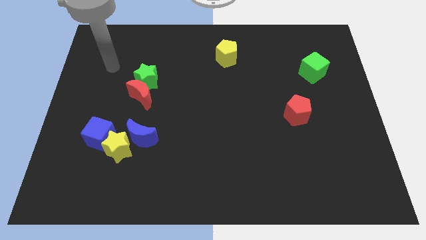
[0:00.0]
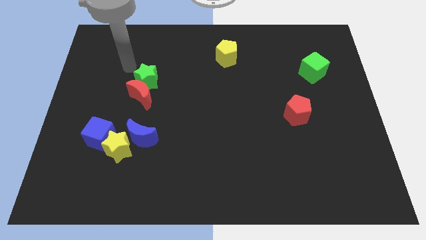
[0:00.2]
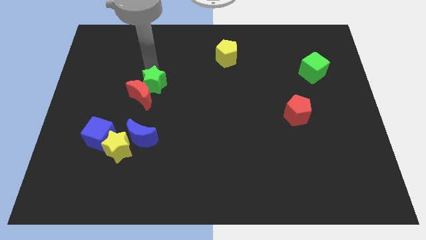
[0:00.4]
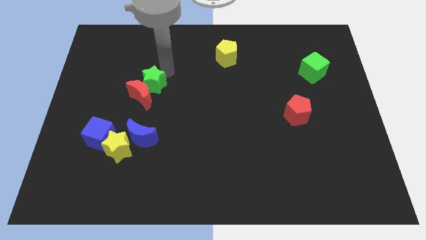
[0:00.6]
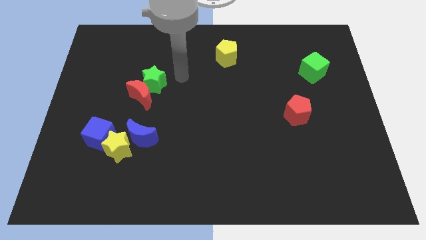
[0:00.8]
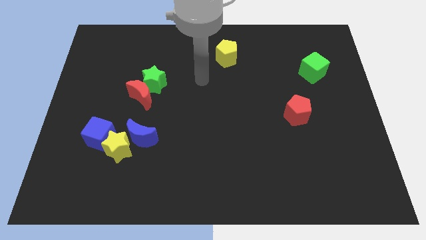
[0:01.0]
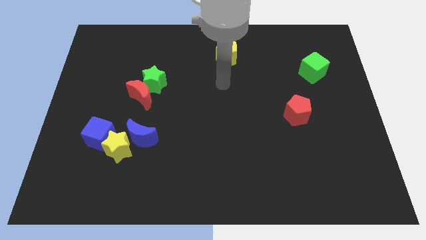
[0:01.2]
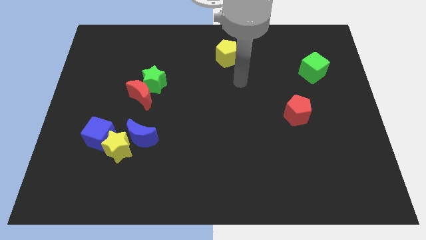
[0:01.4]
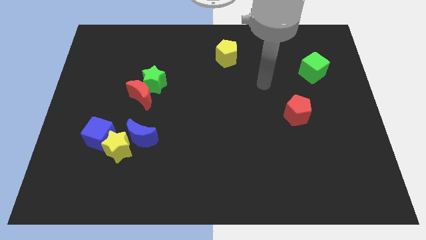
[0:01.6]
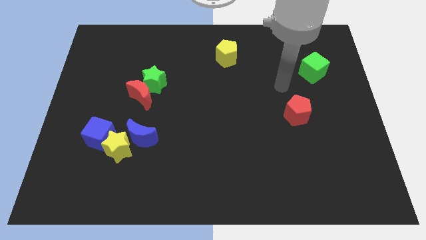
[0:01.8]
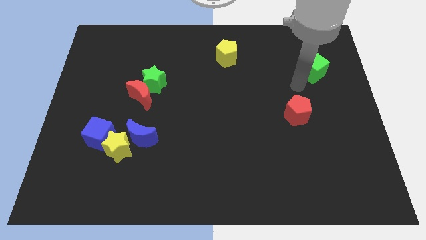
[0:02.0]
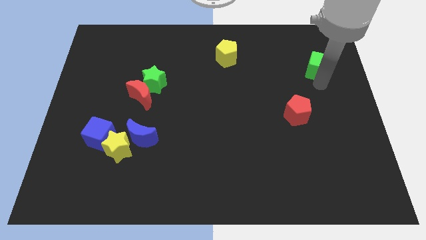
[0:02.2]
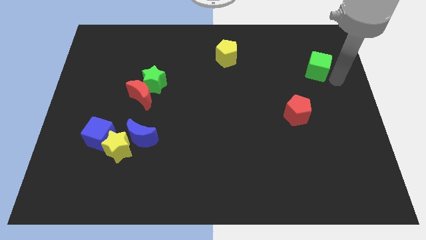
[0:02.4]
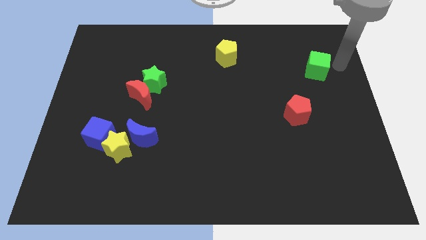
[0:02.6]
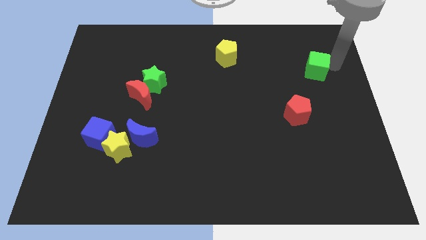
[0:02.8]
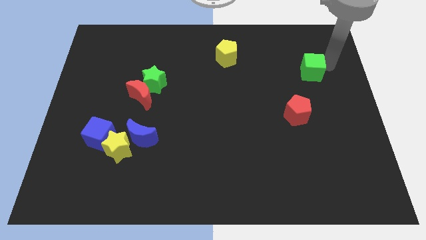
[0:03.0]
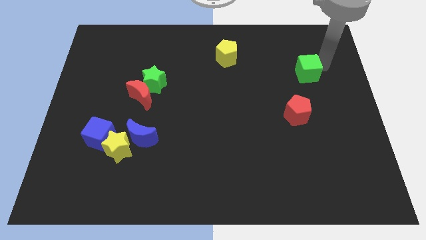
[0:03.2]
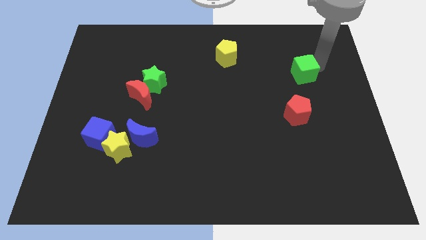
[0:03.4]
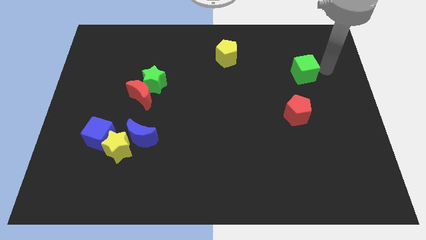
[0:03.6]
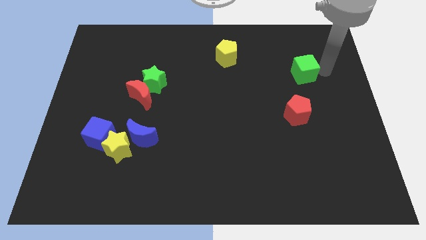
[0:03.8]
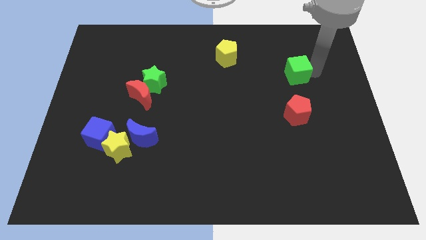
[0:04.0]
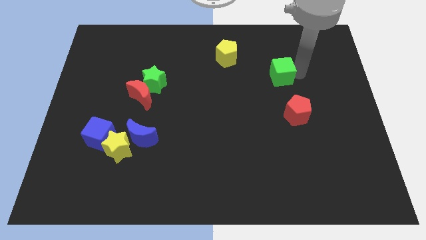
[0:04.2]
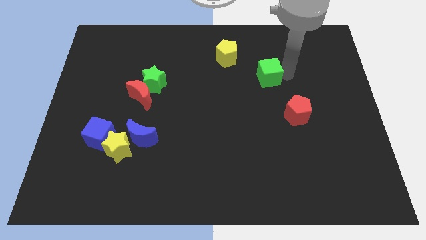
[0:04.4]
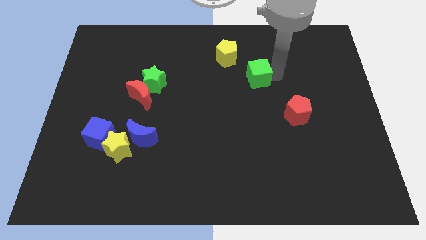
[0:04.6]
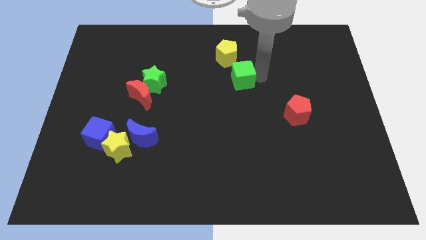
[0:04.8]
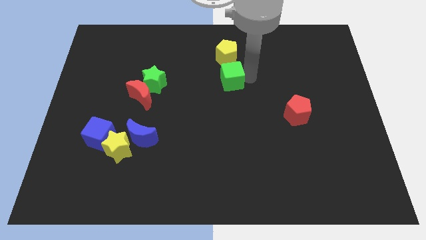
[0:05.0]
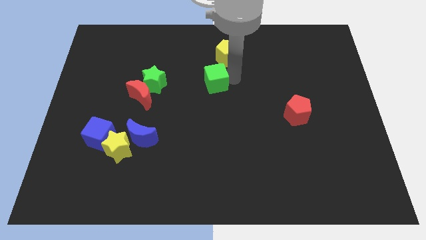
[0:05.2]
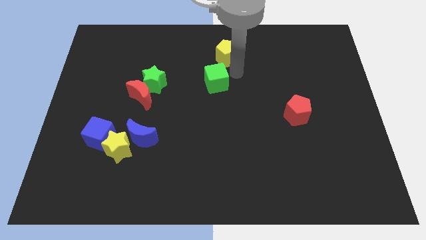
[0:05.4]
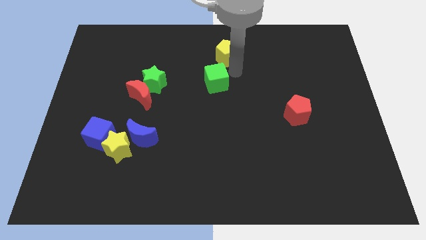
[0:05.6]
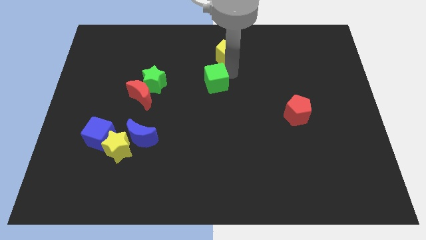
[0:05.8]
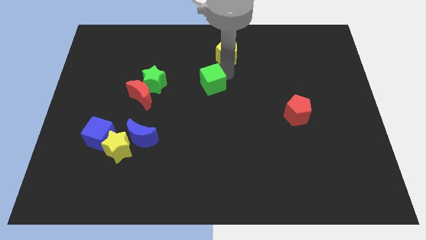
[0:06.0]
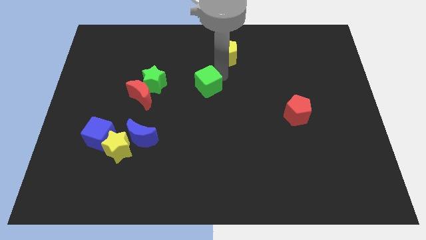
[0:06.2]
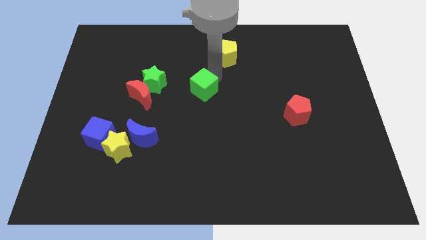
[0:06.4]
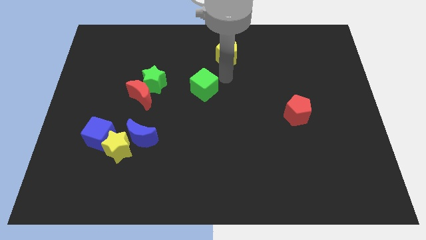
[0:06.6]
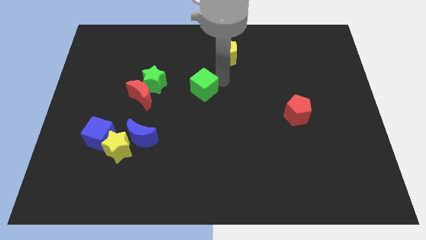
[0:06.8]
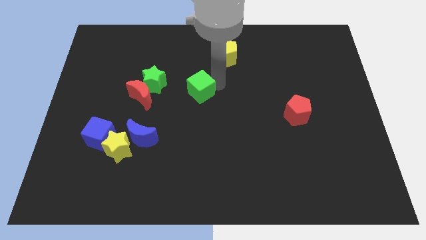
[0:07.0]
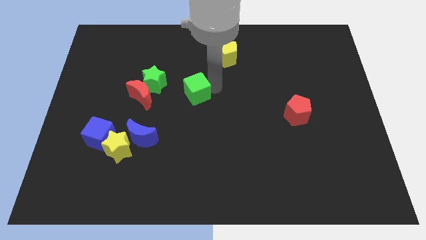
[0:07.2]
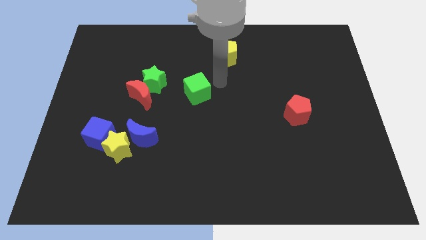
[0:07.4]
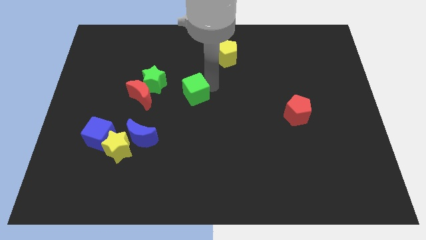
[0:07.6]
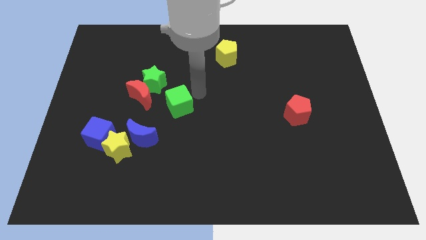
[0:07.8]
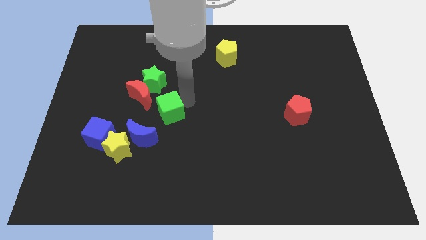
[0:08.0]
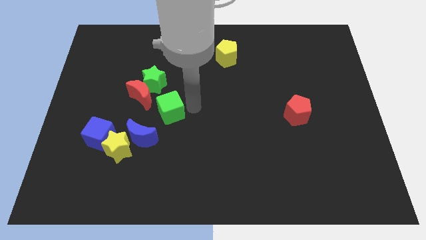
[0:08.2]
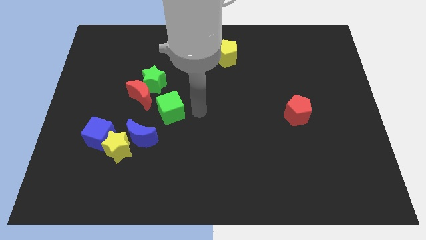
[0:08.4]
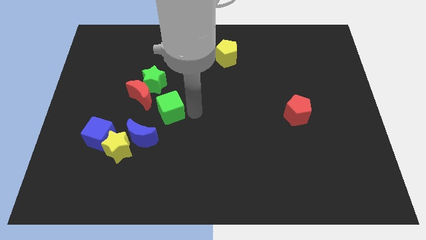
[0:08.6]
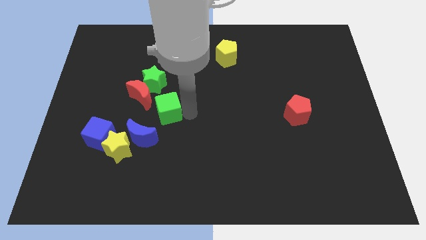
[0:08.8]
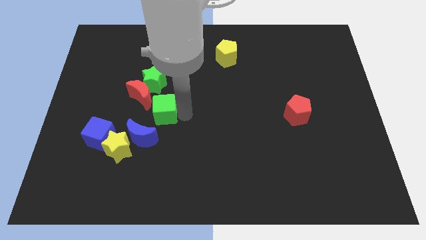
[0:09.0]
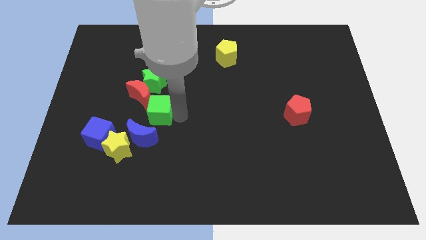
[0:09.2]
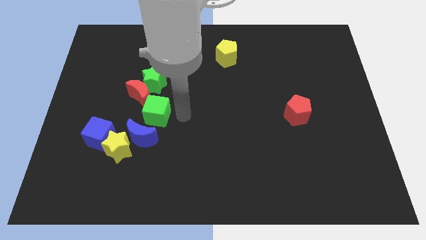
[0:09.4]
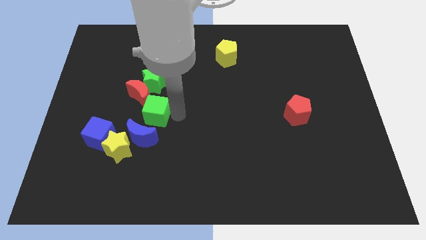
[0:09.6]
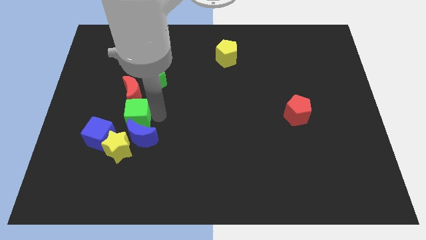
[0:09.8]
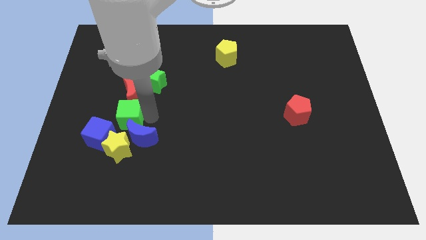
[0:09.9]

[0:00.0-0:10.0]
put the green cube to the bottom left side of the red moon

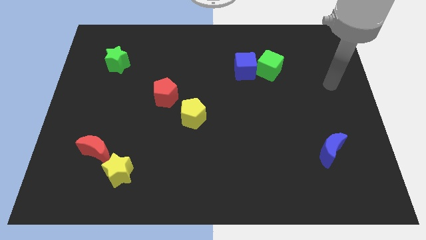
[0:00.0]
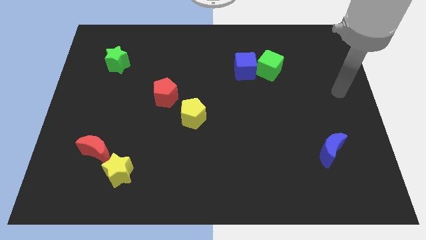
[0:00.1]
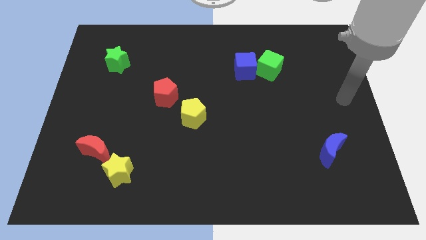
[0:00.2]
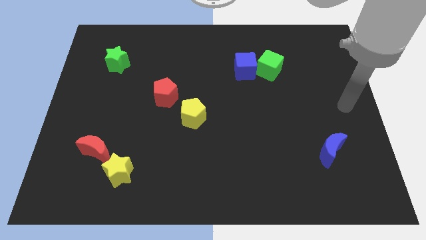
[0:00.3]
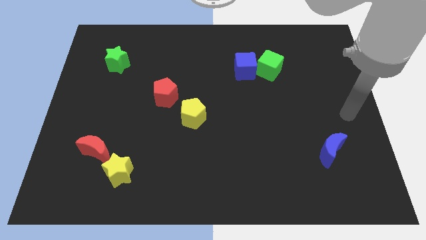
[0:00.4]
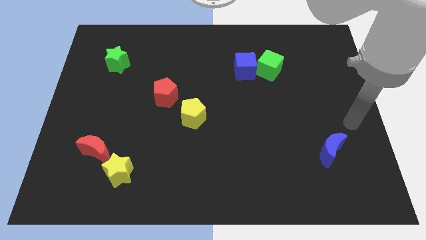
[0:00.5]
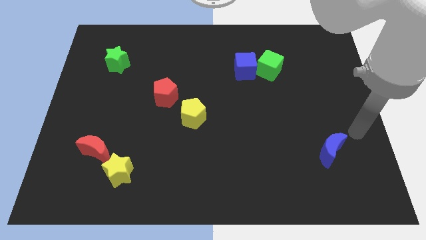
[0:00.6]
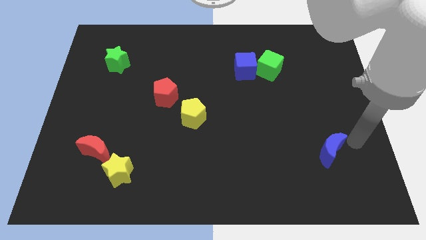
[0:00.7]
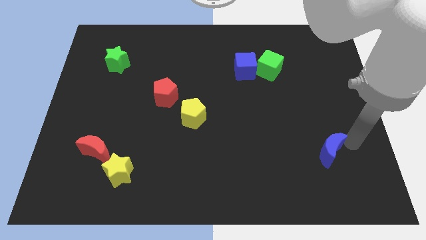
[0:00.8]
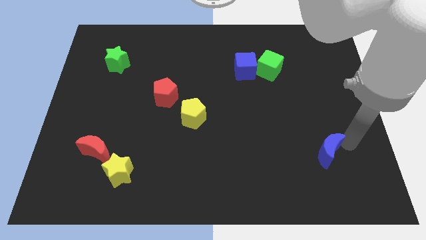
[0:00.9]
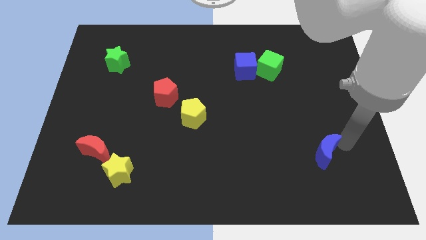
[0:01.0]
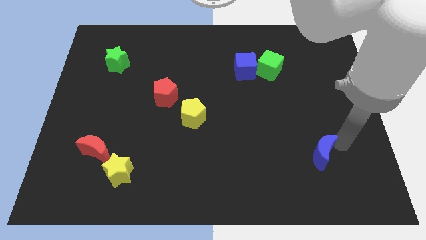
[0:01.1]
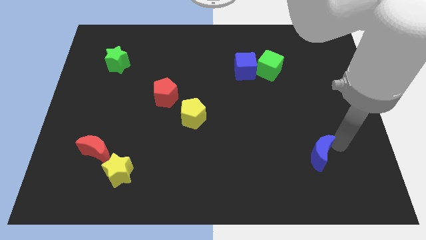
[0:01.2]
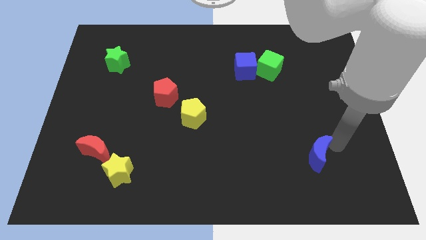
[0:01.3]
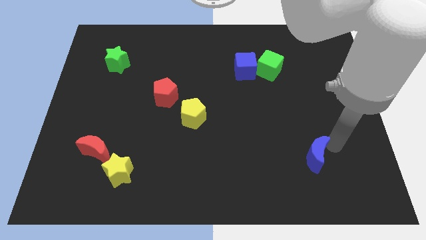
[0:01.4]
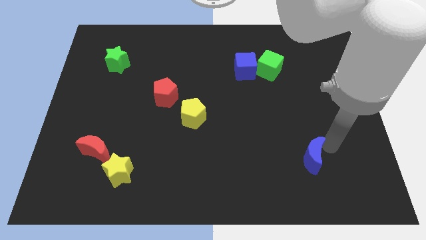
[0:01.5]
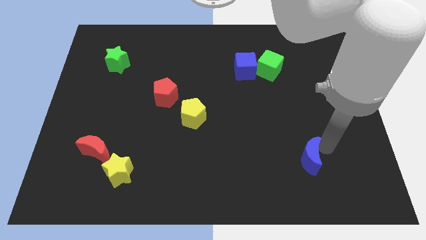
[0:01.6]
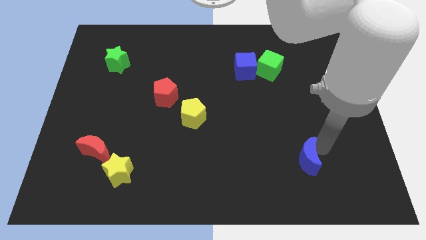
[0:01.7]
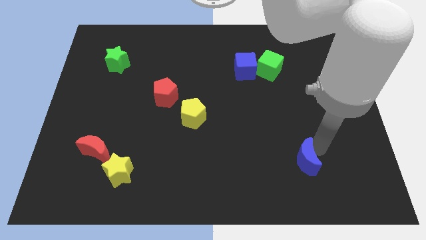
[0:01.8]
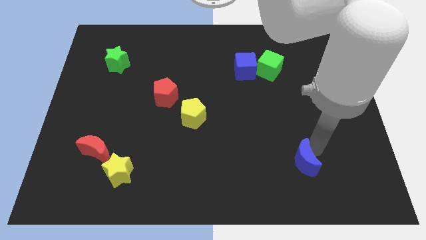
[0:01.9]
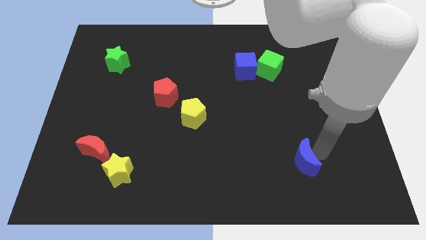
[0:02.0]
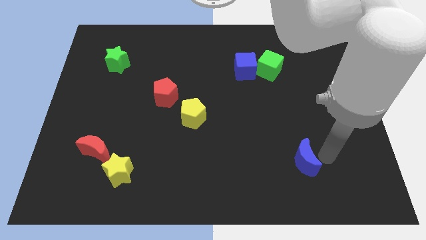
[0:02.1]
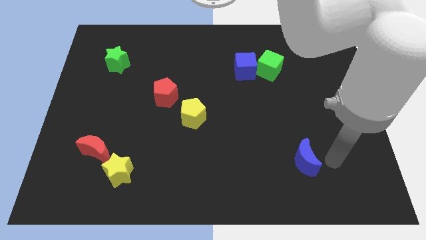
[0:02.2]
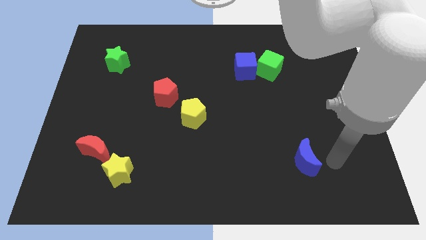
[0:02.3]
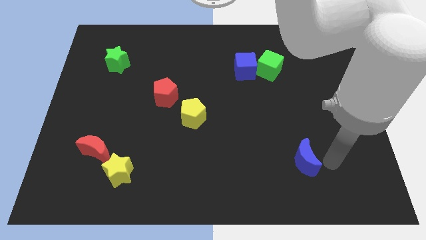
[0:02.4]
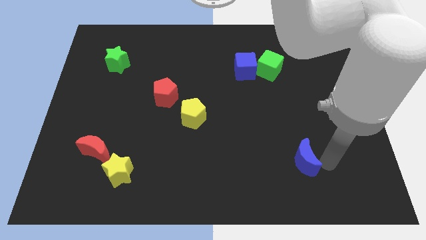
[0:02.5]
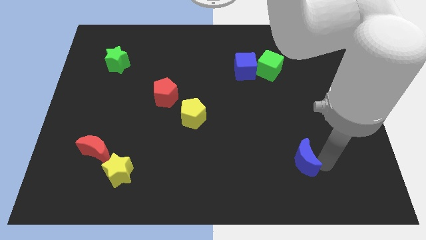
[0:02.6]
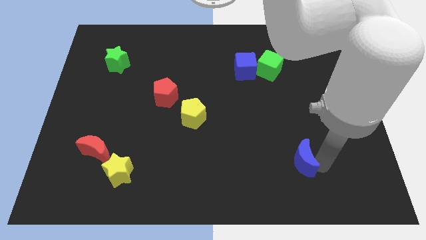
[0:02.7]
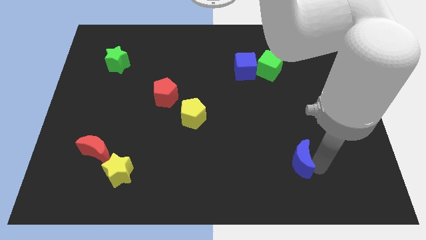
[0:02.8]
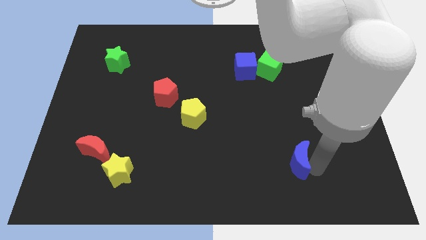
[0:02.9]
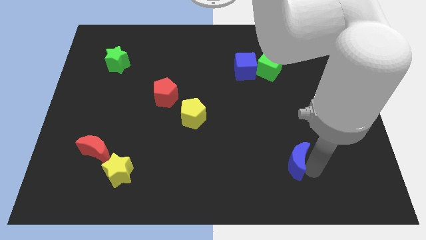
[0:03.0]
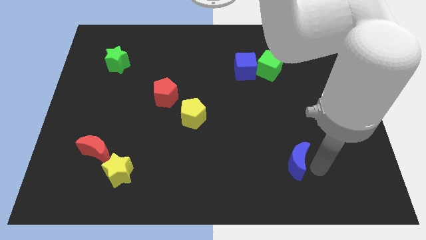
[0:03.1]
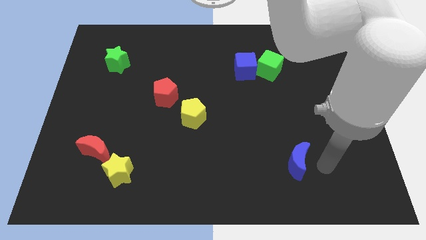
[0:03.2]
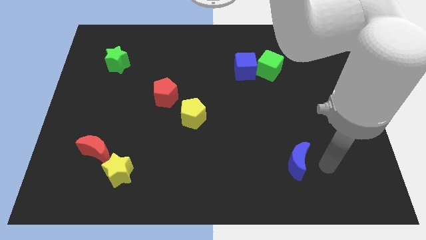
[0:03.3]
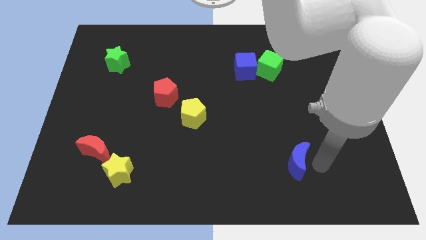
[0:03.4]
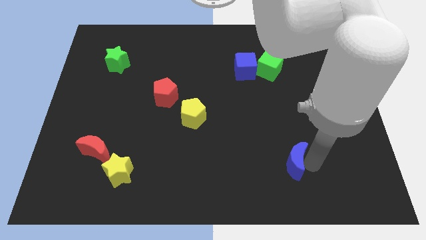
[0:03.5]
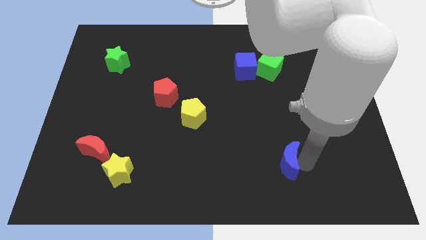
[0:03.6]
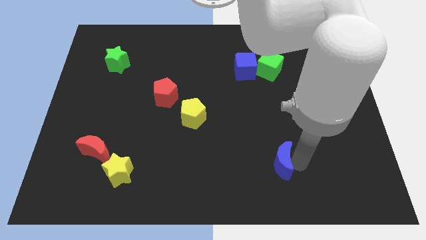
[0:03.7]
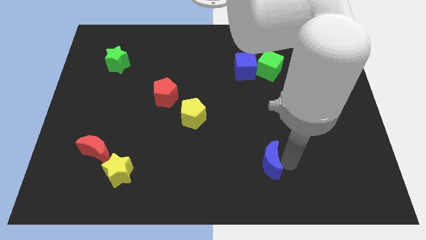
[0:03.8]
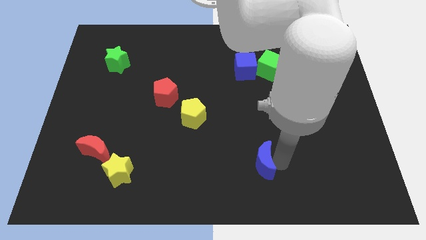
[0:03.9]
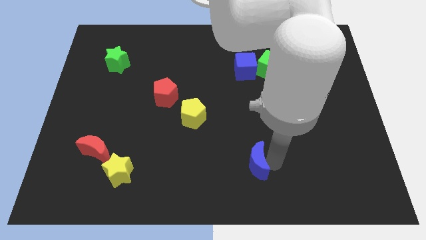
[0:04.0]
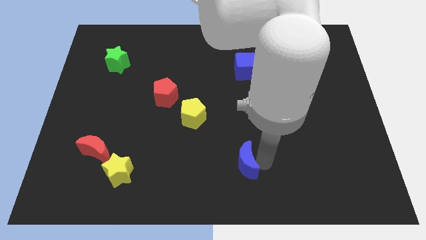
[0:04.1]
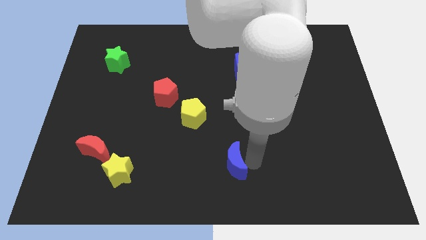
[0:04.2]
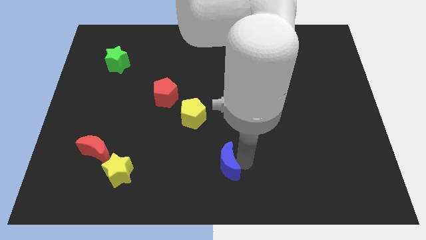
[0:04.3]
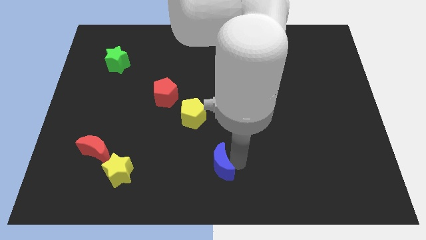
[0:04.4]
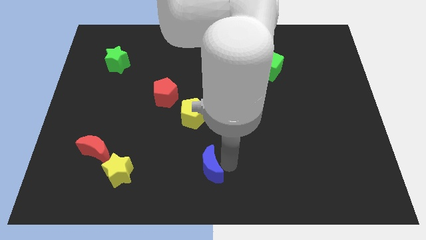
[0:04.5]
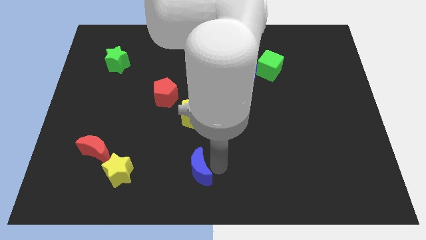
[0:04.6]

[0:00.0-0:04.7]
put the blue moon just right of the yellow star
